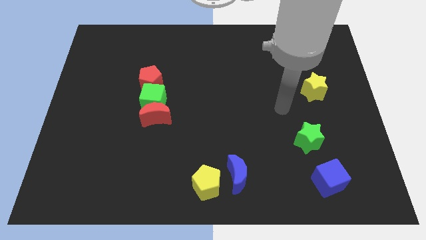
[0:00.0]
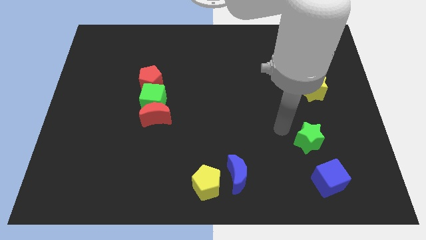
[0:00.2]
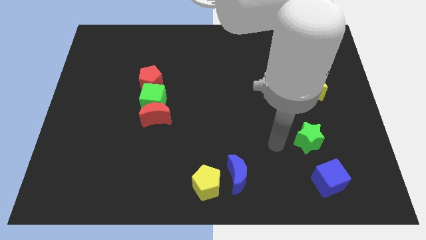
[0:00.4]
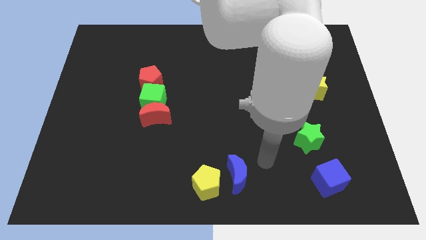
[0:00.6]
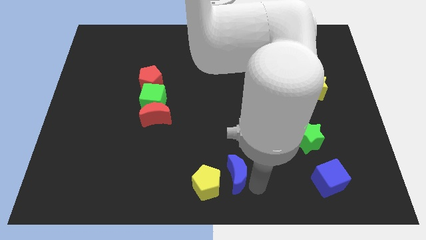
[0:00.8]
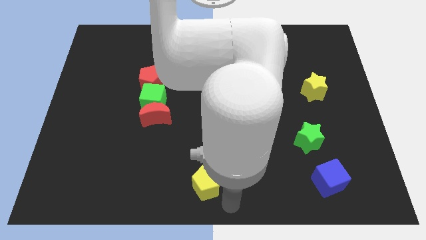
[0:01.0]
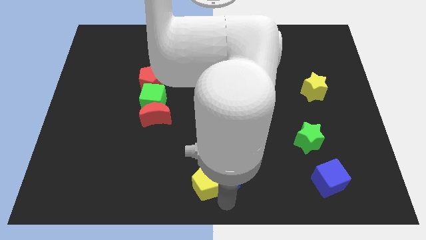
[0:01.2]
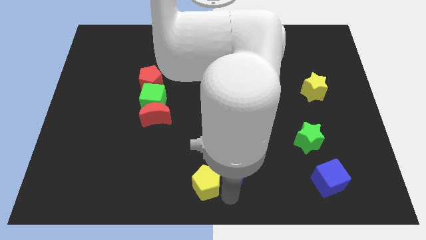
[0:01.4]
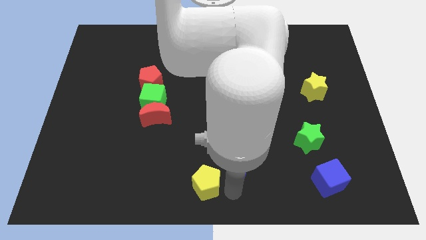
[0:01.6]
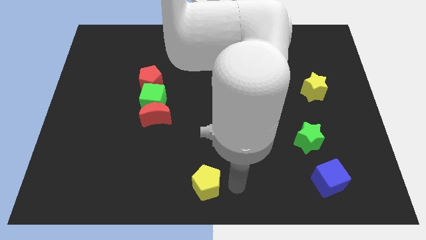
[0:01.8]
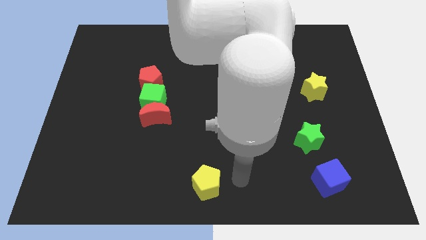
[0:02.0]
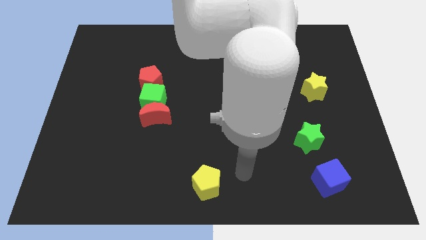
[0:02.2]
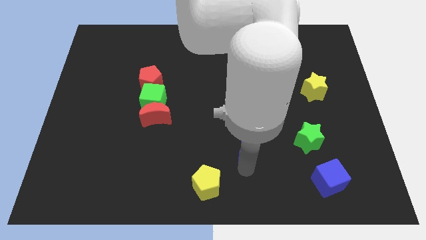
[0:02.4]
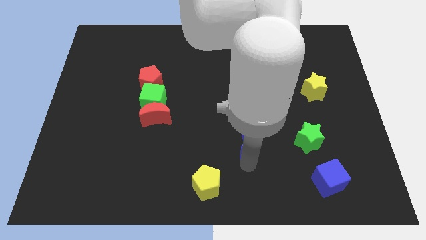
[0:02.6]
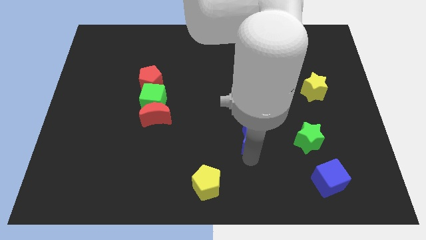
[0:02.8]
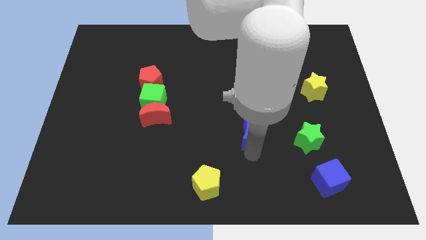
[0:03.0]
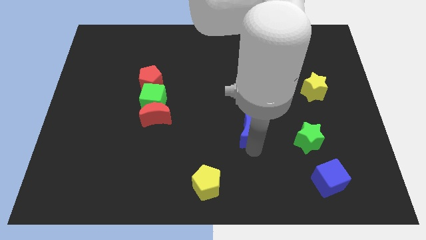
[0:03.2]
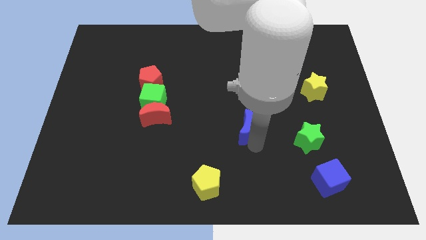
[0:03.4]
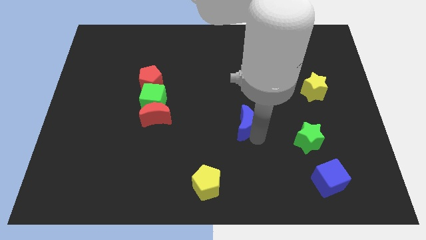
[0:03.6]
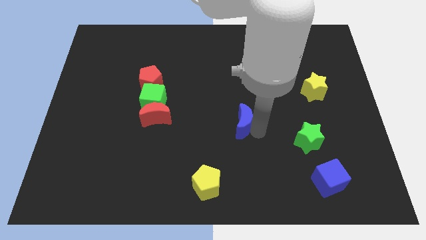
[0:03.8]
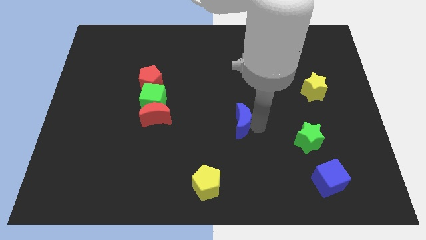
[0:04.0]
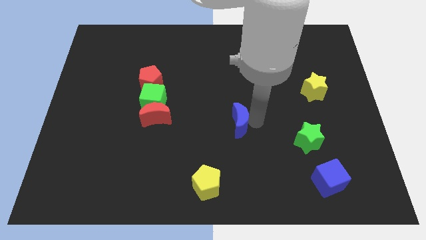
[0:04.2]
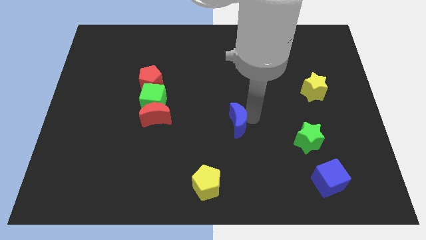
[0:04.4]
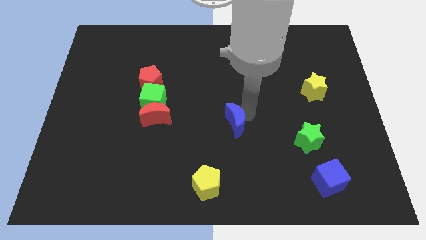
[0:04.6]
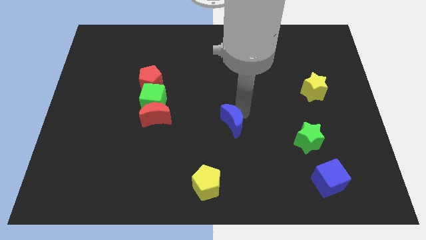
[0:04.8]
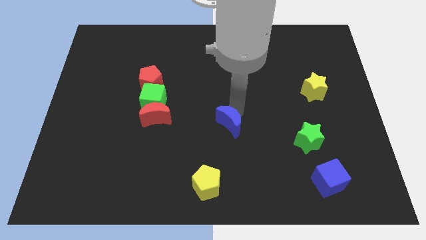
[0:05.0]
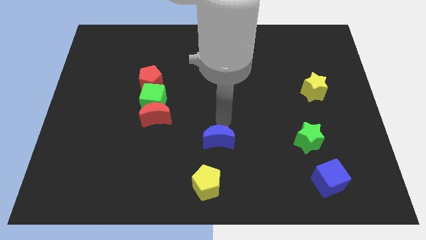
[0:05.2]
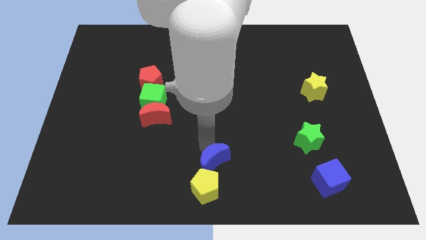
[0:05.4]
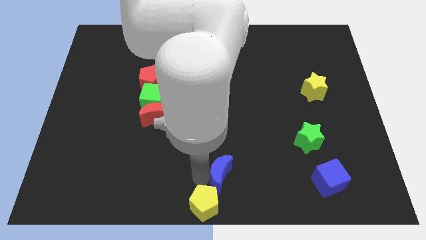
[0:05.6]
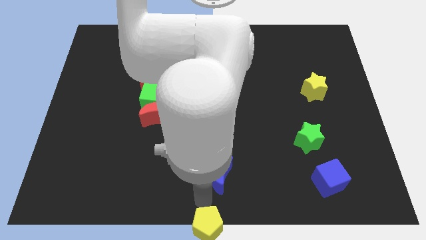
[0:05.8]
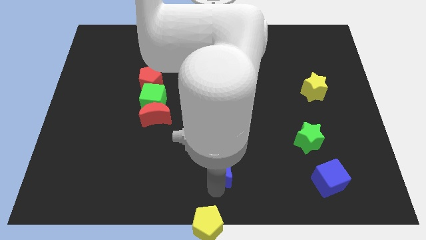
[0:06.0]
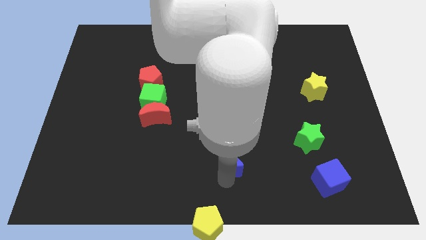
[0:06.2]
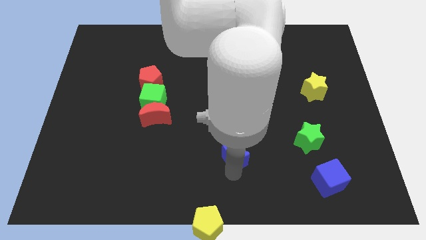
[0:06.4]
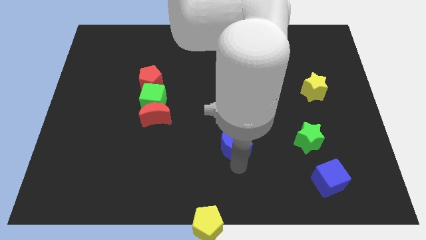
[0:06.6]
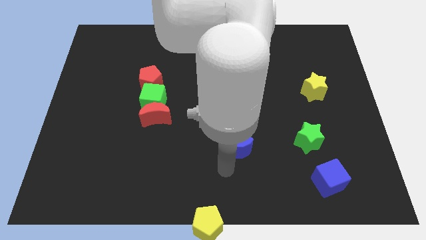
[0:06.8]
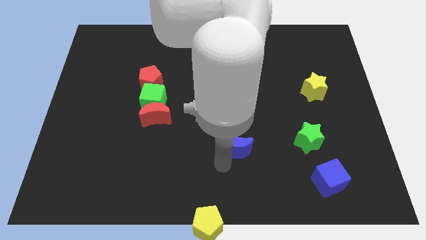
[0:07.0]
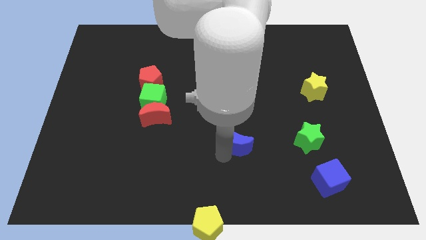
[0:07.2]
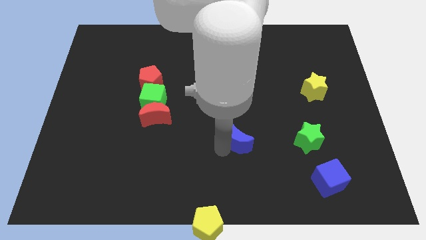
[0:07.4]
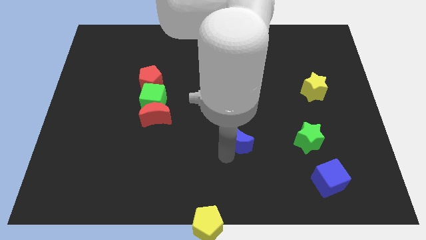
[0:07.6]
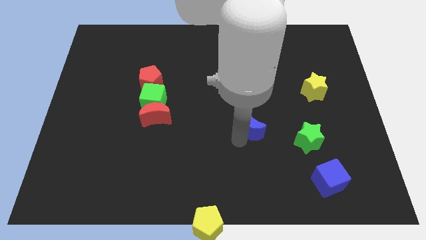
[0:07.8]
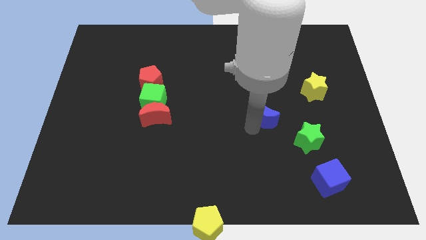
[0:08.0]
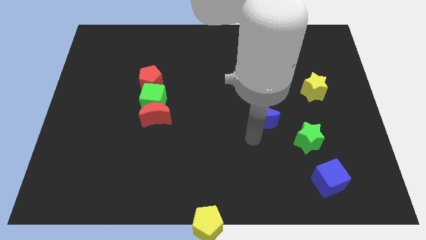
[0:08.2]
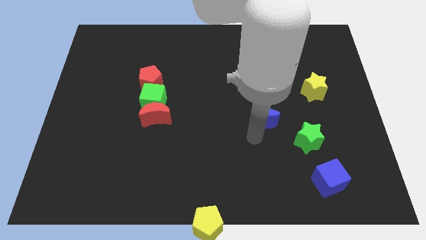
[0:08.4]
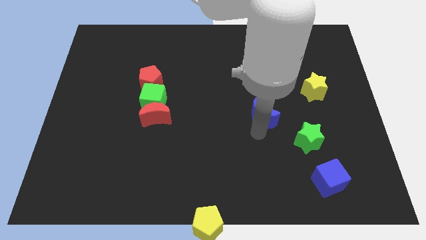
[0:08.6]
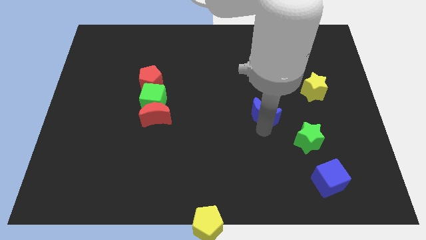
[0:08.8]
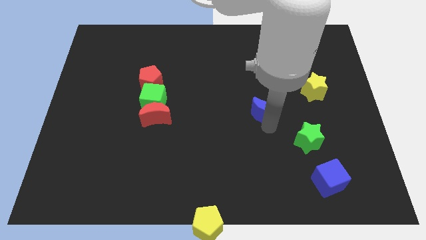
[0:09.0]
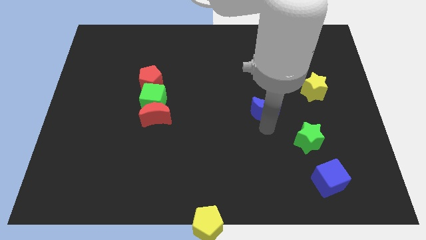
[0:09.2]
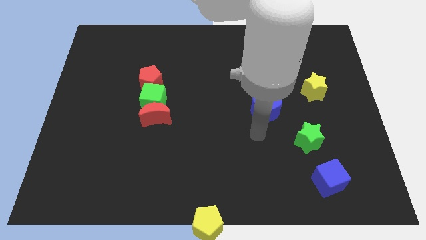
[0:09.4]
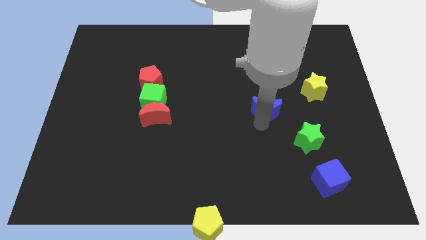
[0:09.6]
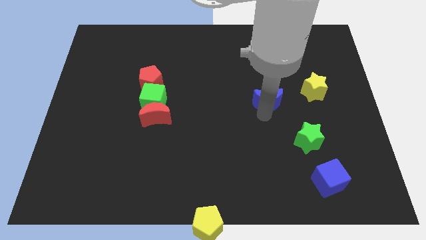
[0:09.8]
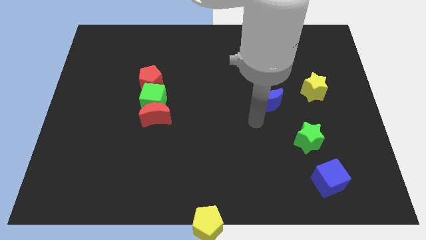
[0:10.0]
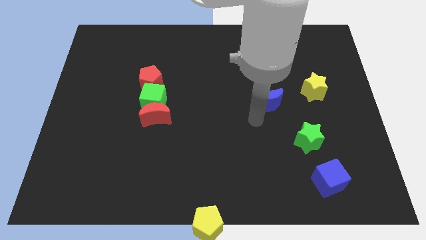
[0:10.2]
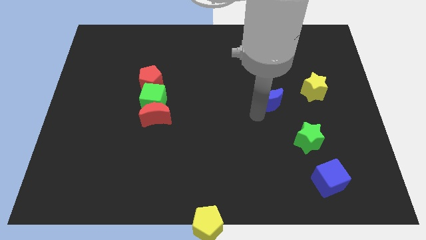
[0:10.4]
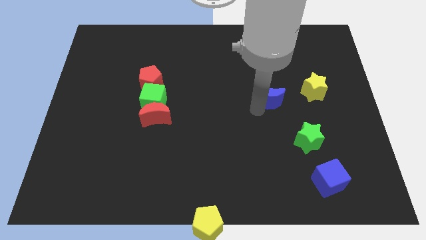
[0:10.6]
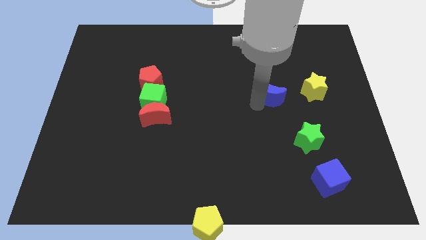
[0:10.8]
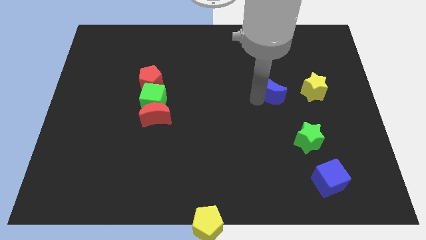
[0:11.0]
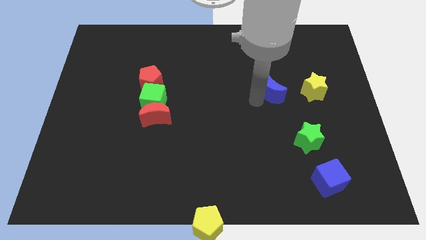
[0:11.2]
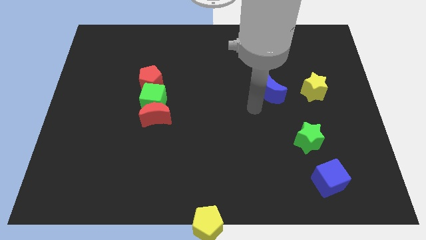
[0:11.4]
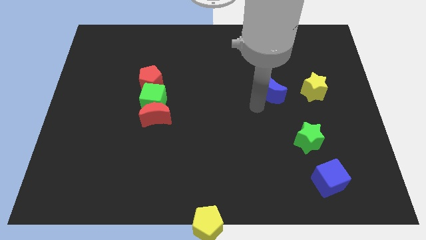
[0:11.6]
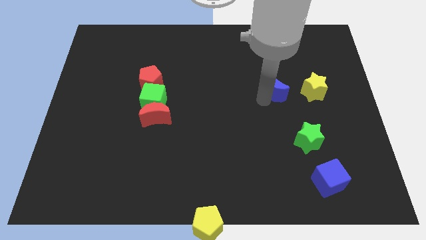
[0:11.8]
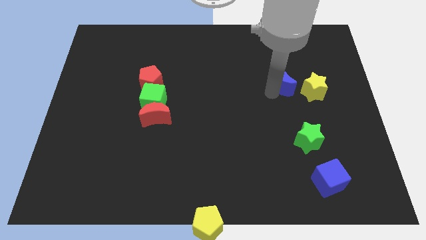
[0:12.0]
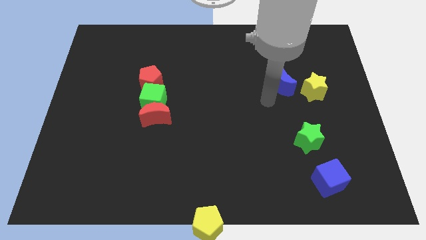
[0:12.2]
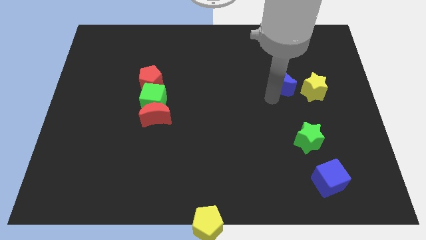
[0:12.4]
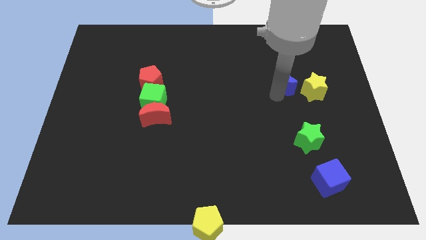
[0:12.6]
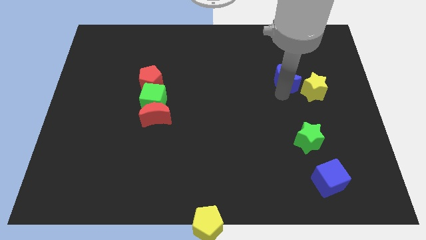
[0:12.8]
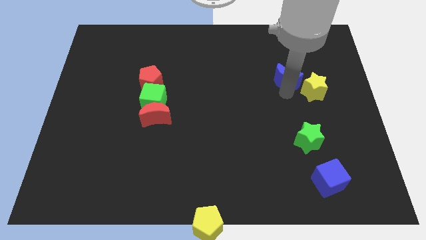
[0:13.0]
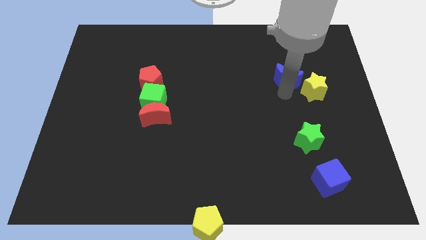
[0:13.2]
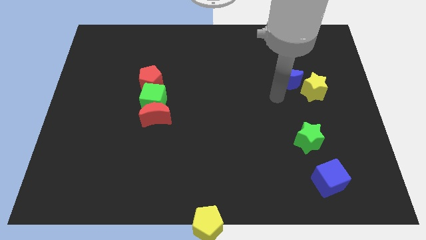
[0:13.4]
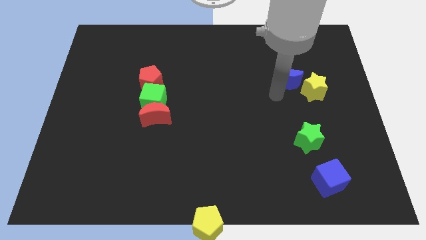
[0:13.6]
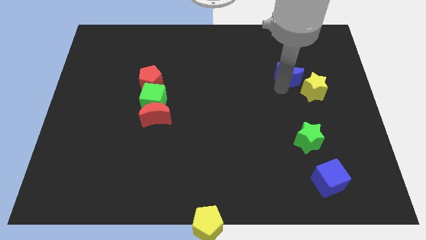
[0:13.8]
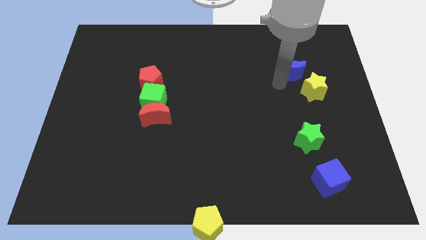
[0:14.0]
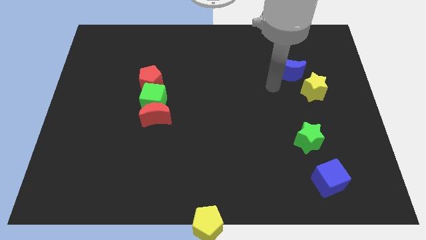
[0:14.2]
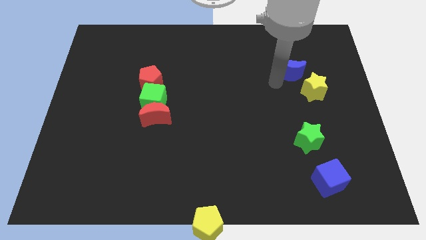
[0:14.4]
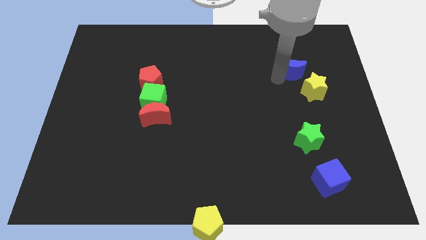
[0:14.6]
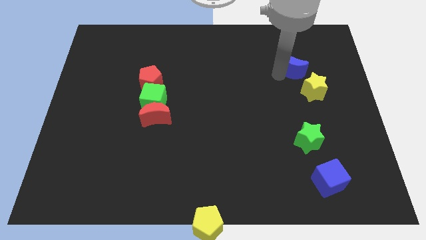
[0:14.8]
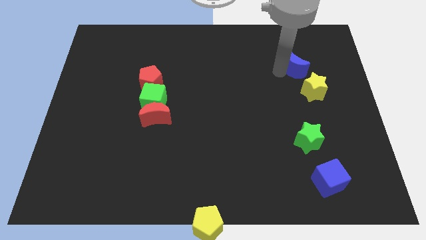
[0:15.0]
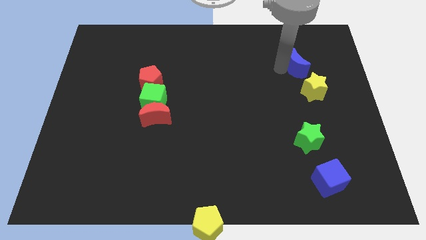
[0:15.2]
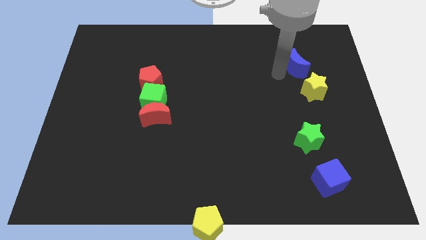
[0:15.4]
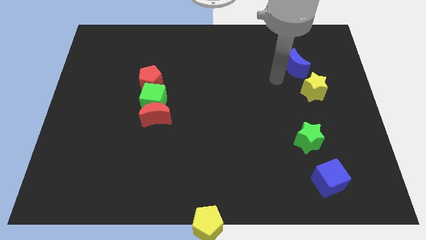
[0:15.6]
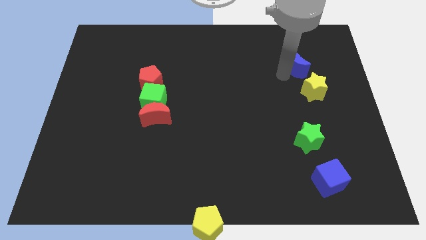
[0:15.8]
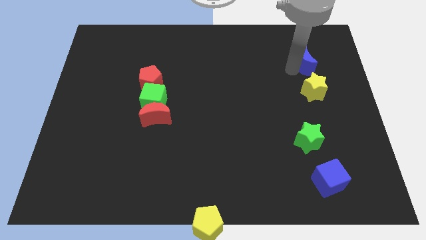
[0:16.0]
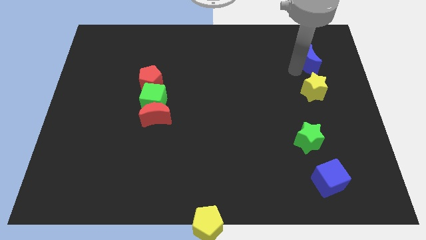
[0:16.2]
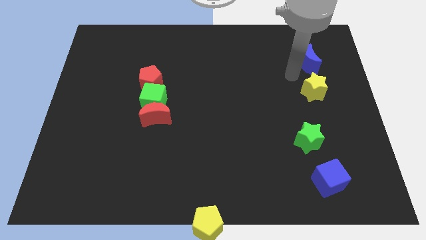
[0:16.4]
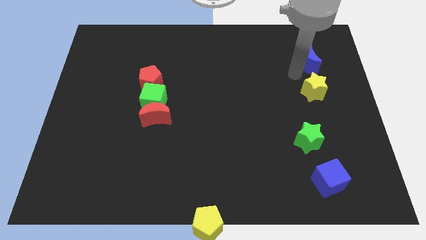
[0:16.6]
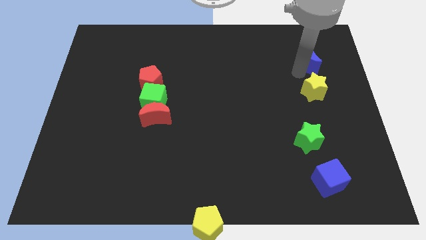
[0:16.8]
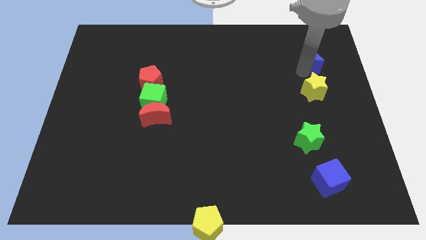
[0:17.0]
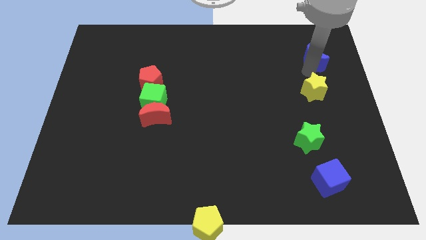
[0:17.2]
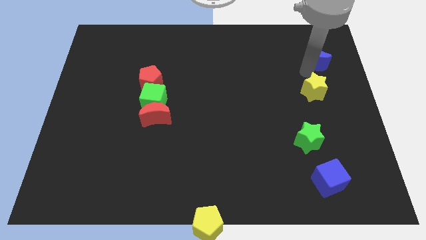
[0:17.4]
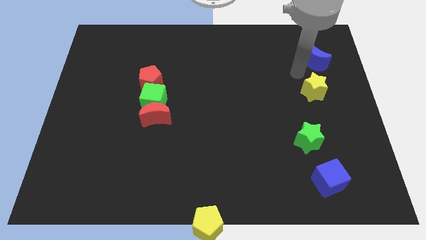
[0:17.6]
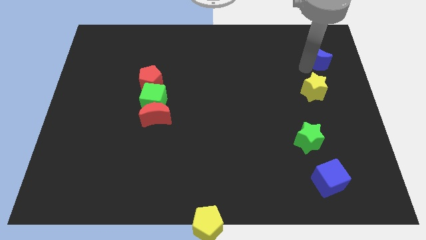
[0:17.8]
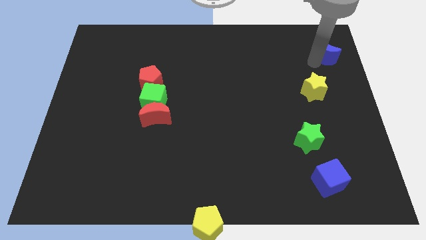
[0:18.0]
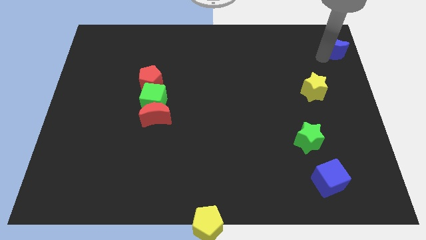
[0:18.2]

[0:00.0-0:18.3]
put the blue moon to the top right corner
